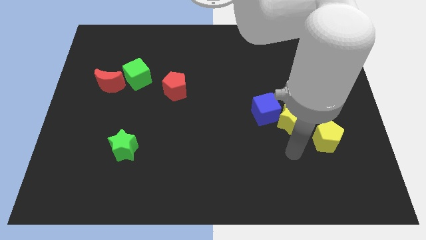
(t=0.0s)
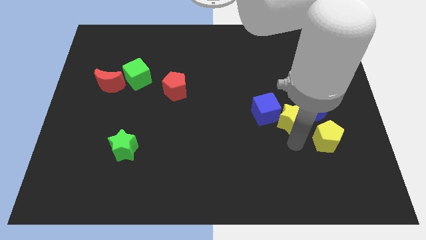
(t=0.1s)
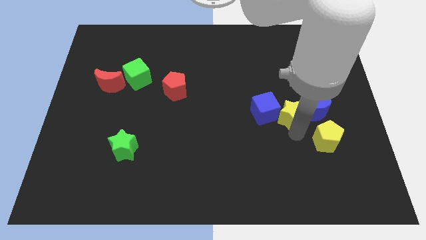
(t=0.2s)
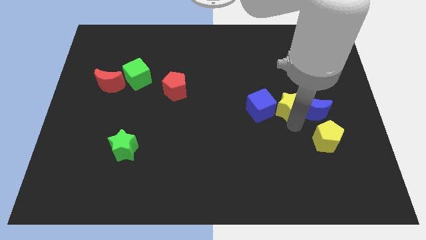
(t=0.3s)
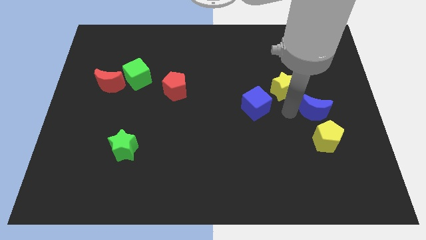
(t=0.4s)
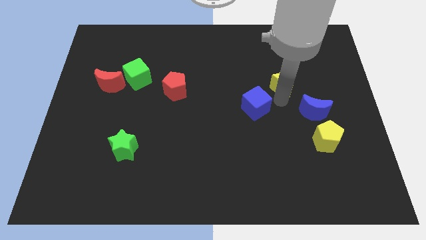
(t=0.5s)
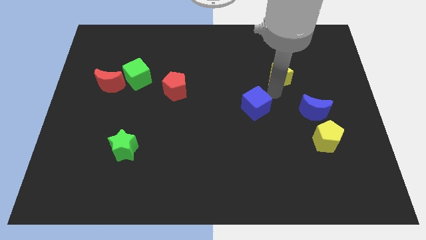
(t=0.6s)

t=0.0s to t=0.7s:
move the blue cube away from the yellow star

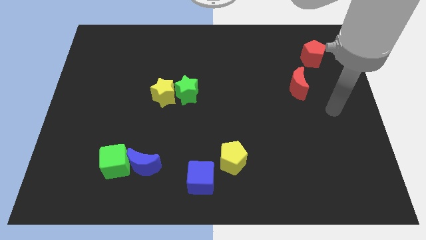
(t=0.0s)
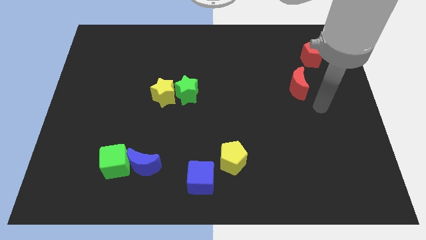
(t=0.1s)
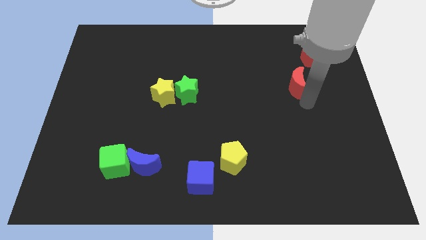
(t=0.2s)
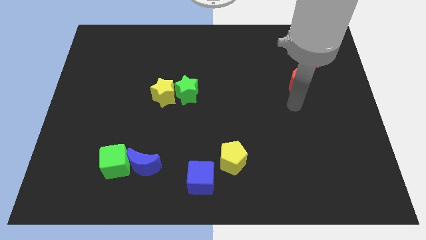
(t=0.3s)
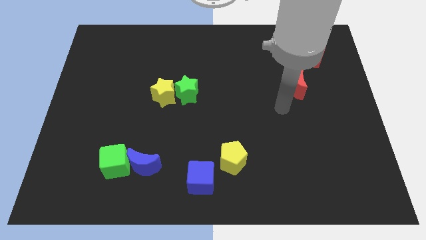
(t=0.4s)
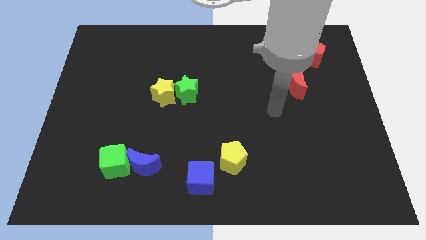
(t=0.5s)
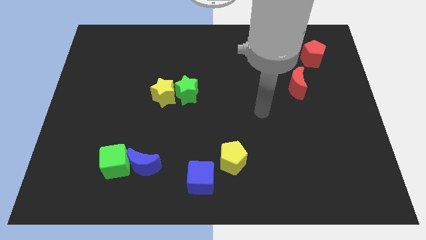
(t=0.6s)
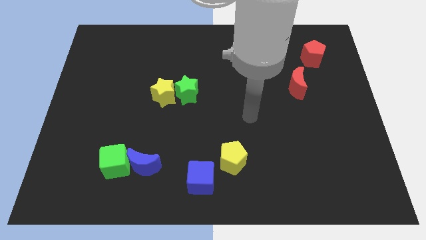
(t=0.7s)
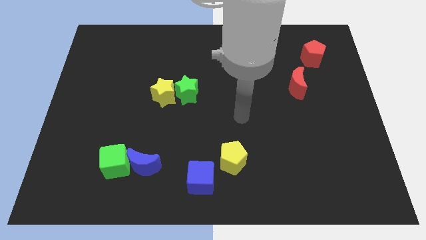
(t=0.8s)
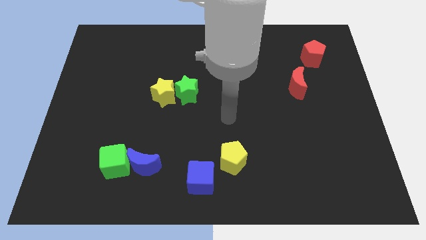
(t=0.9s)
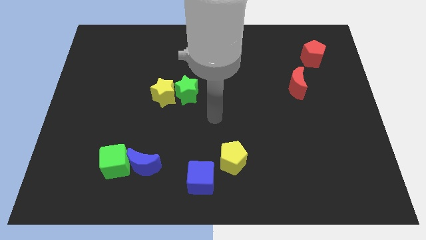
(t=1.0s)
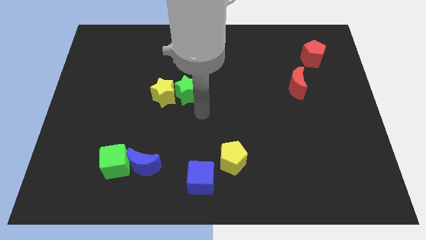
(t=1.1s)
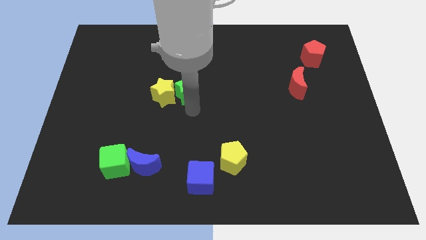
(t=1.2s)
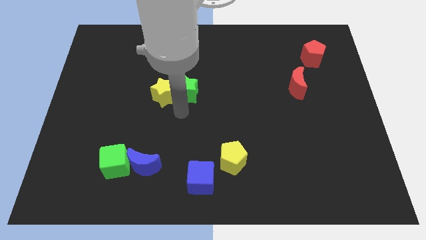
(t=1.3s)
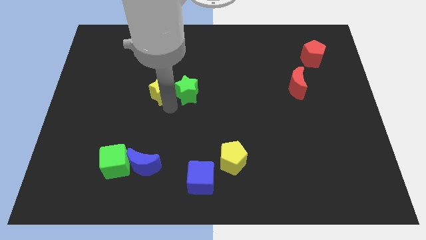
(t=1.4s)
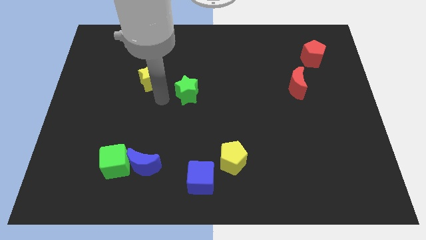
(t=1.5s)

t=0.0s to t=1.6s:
separate the green star from the yellow star

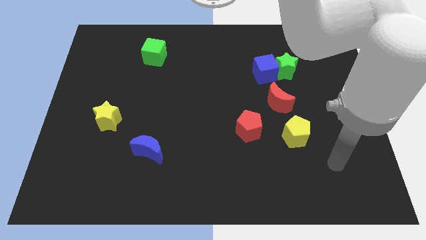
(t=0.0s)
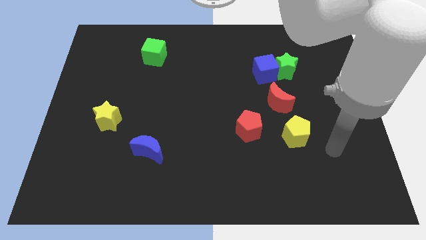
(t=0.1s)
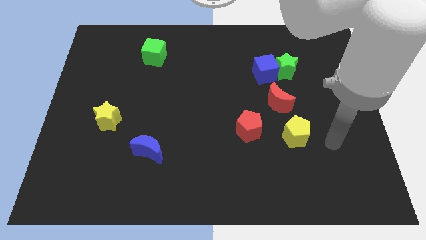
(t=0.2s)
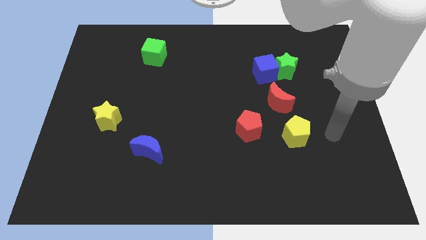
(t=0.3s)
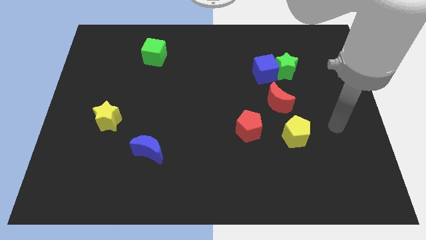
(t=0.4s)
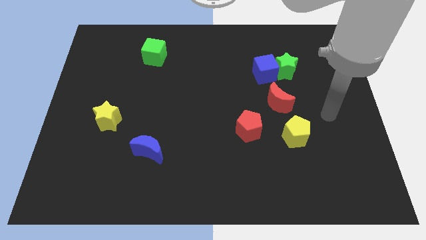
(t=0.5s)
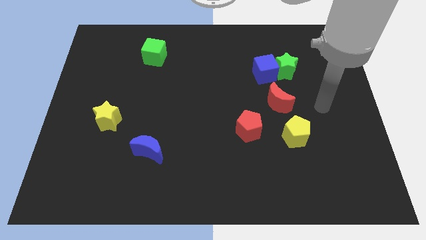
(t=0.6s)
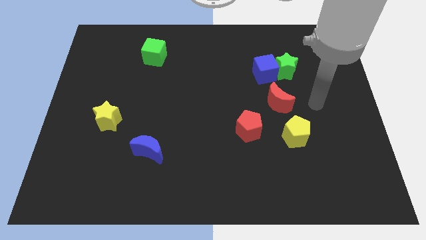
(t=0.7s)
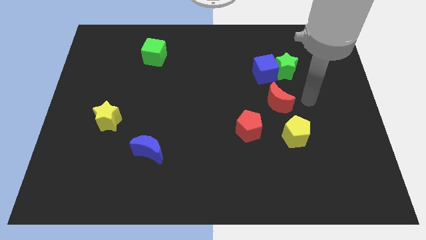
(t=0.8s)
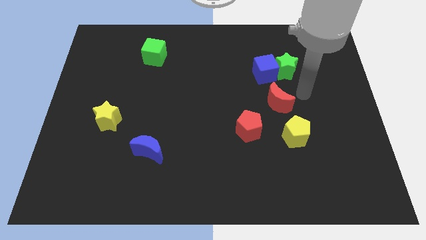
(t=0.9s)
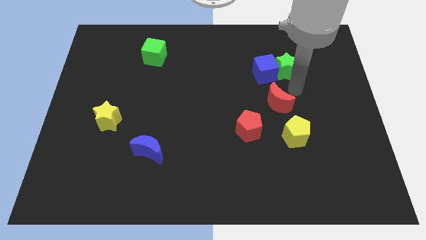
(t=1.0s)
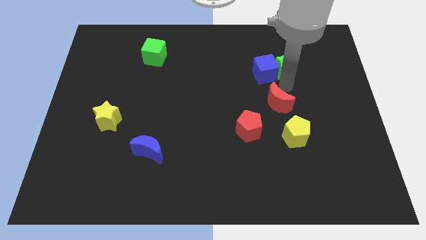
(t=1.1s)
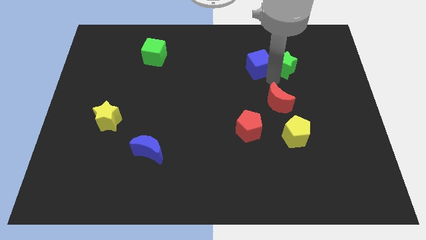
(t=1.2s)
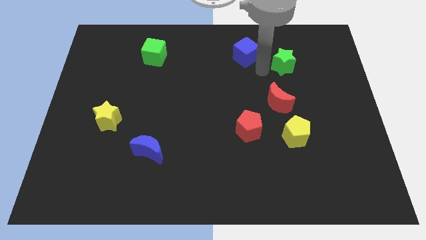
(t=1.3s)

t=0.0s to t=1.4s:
separate the green star from the blue cube

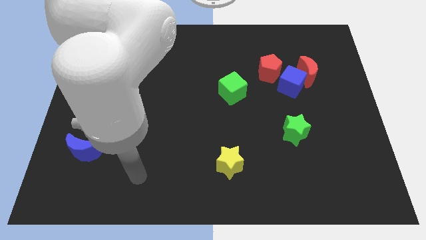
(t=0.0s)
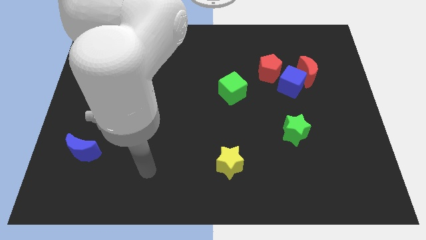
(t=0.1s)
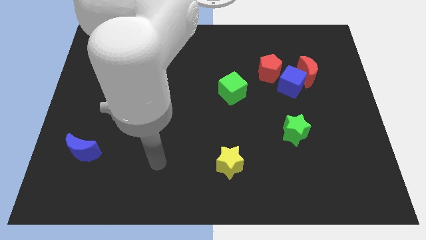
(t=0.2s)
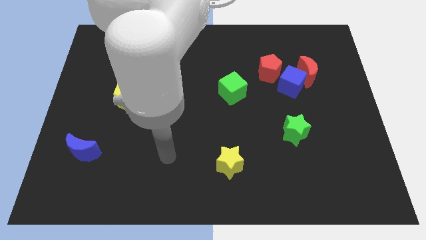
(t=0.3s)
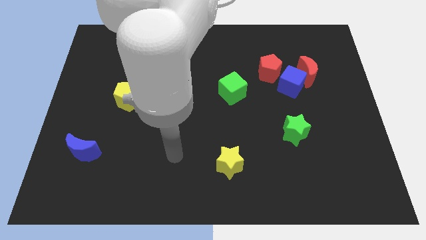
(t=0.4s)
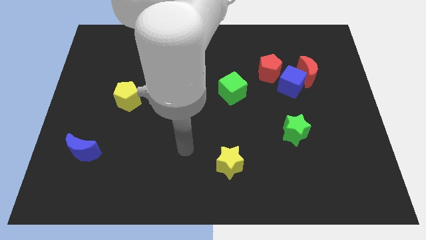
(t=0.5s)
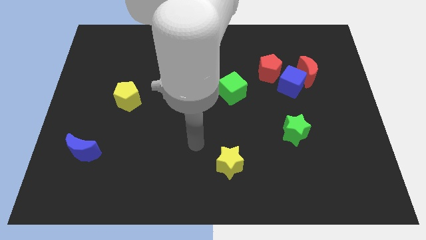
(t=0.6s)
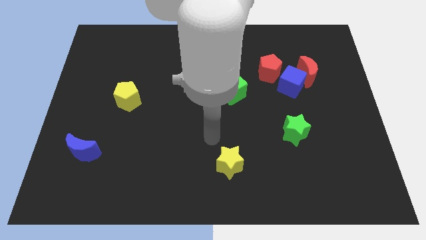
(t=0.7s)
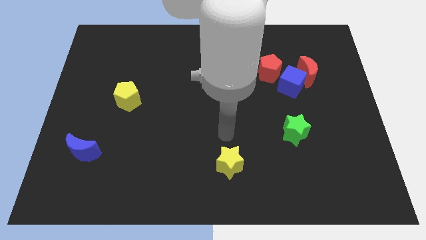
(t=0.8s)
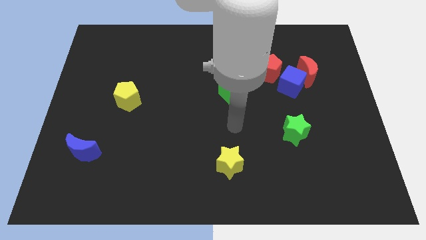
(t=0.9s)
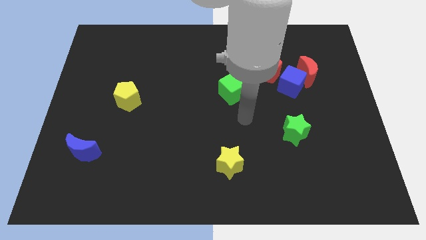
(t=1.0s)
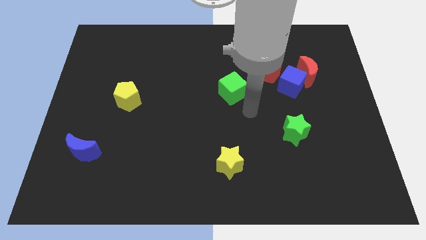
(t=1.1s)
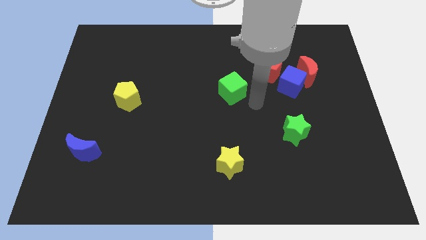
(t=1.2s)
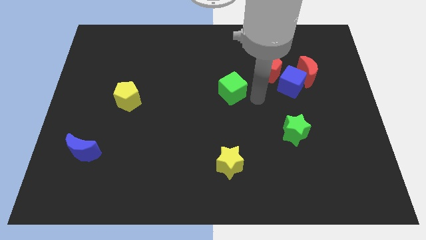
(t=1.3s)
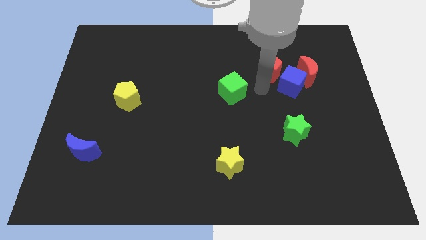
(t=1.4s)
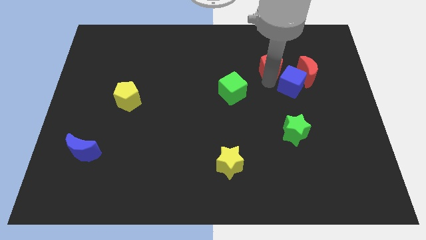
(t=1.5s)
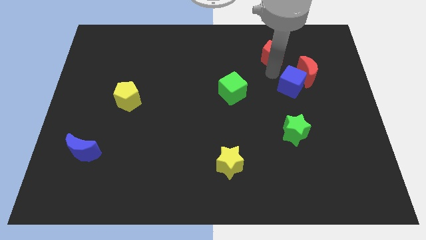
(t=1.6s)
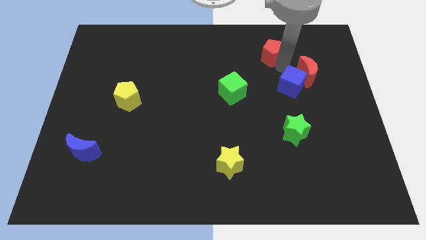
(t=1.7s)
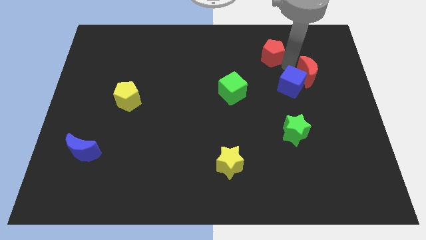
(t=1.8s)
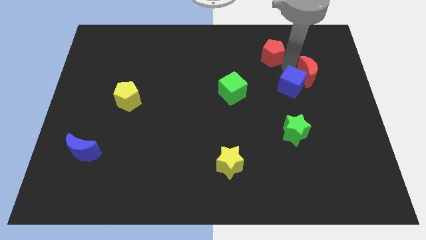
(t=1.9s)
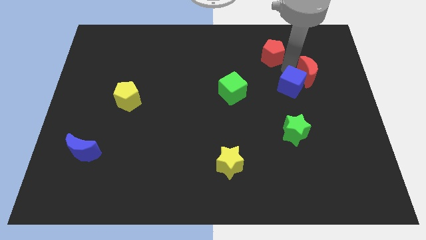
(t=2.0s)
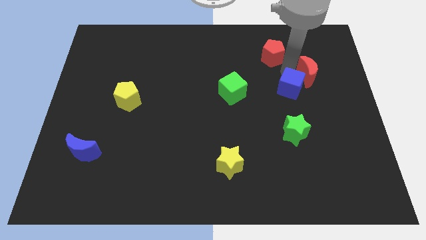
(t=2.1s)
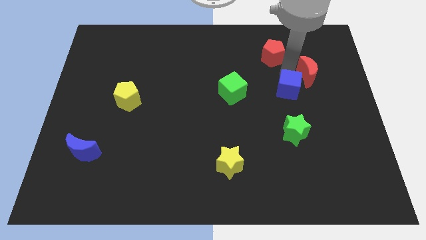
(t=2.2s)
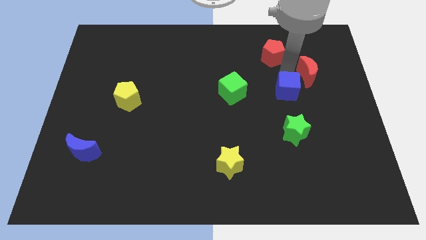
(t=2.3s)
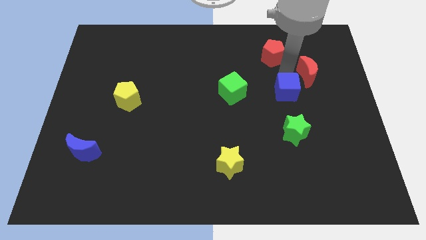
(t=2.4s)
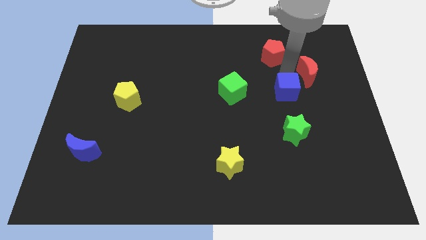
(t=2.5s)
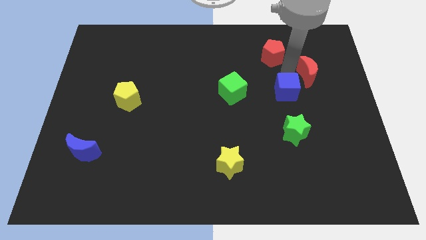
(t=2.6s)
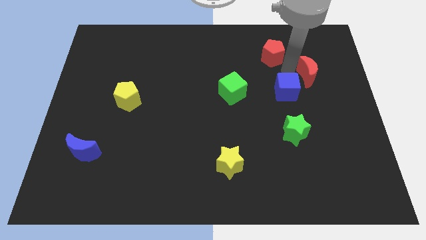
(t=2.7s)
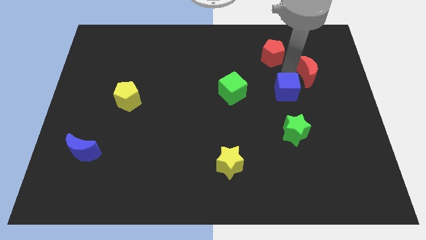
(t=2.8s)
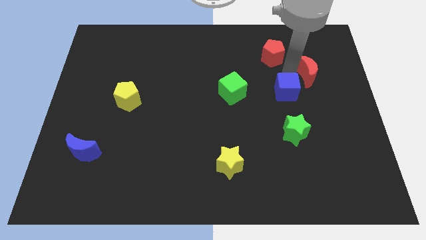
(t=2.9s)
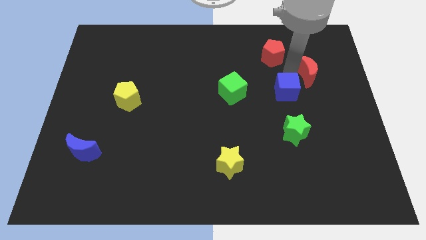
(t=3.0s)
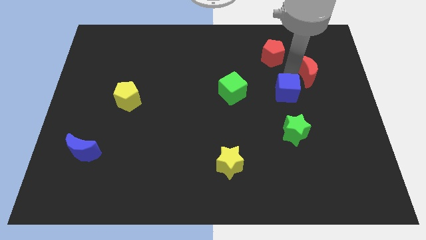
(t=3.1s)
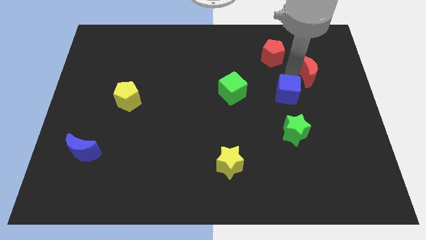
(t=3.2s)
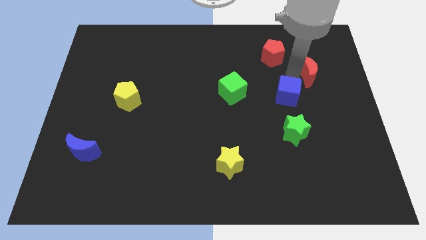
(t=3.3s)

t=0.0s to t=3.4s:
pull the blue cube apart from the red moon and red pentagon

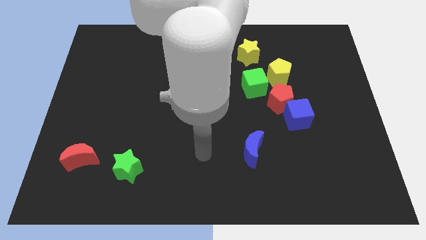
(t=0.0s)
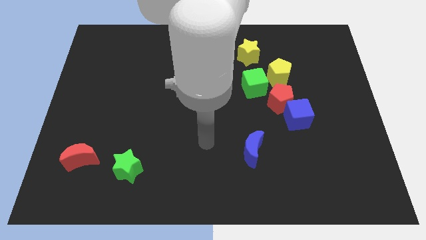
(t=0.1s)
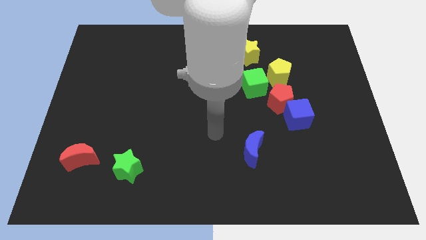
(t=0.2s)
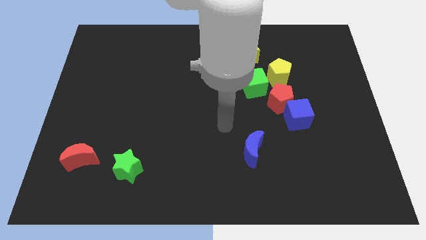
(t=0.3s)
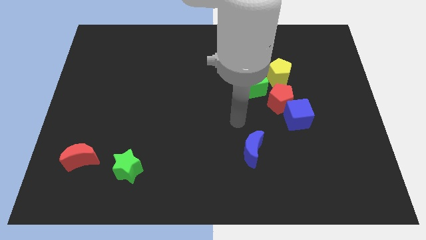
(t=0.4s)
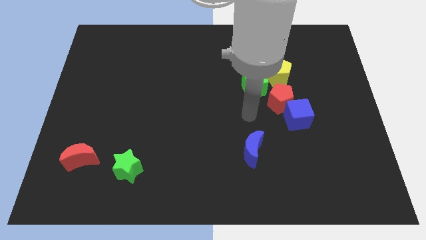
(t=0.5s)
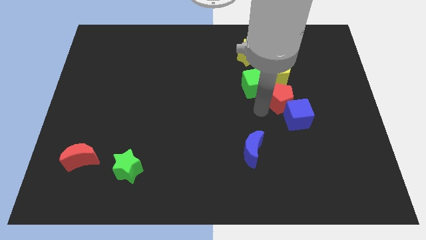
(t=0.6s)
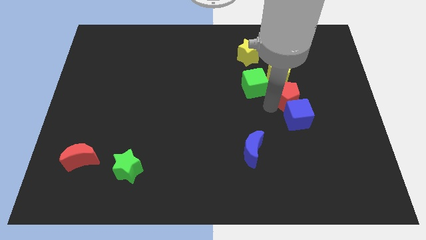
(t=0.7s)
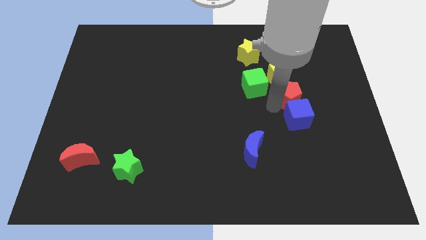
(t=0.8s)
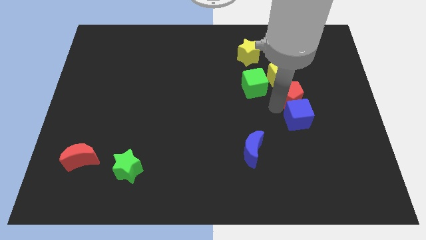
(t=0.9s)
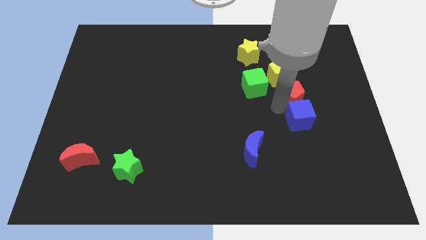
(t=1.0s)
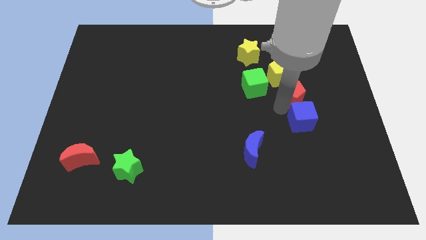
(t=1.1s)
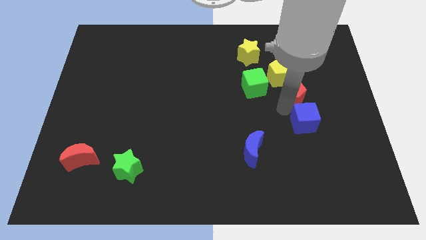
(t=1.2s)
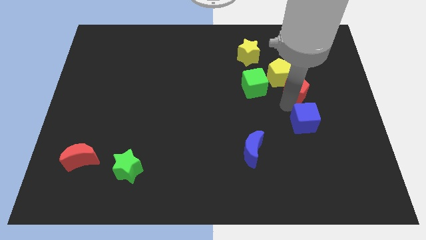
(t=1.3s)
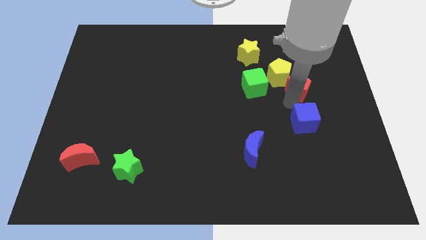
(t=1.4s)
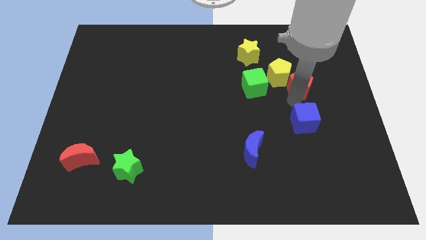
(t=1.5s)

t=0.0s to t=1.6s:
separate the blue cube from the red pentagon

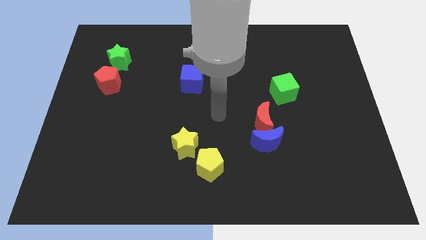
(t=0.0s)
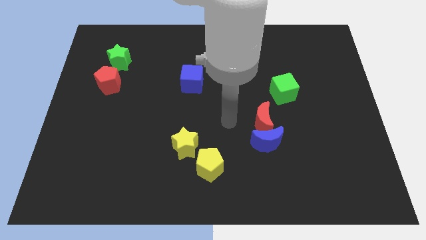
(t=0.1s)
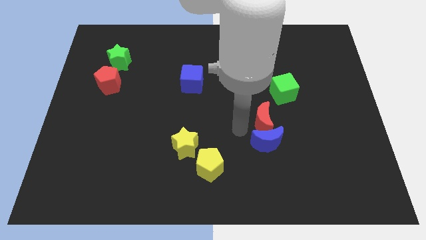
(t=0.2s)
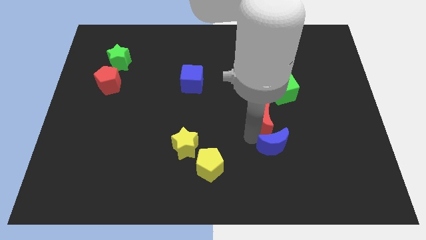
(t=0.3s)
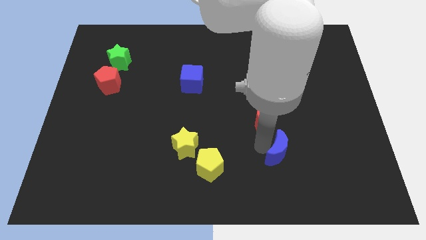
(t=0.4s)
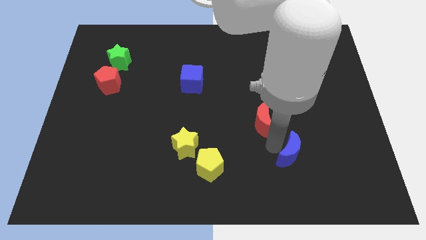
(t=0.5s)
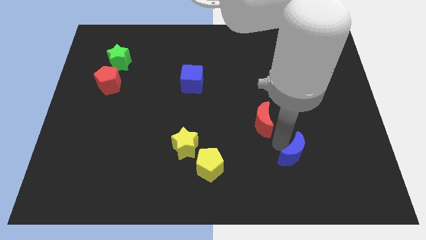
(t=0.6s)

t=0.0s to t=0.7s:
pull the red moon apart from the blue moon
